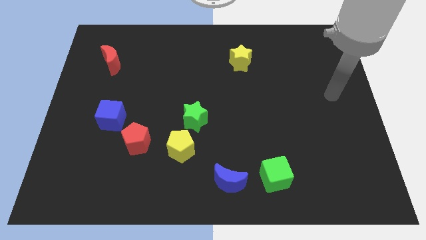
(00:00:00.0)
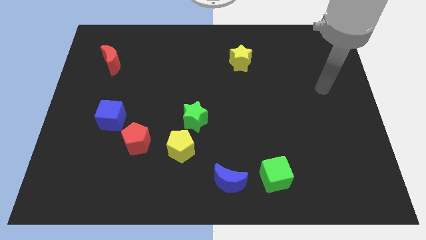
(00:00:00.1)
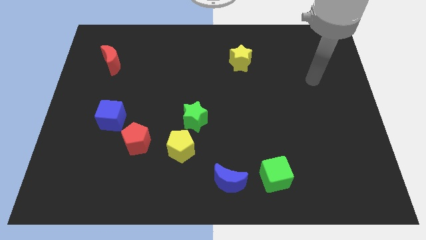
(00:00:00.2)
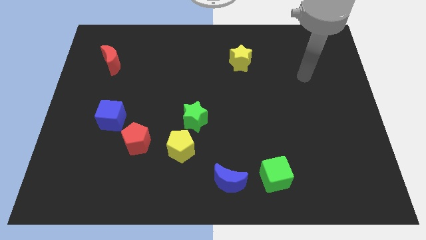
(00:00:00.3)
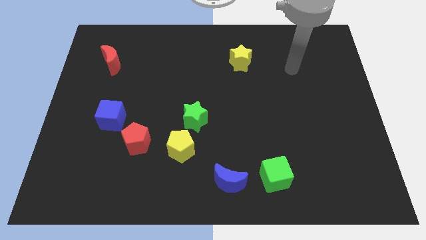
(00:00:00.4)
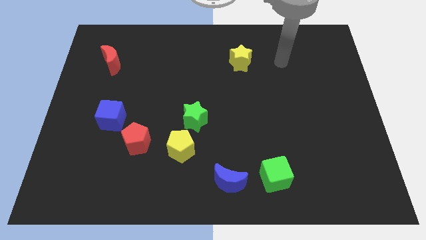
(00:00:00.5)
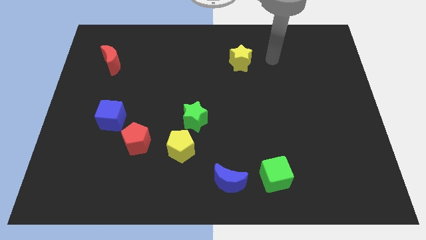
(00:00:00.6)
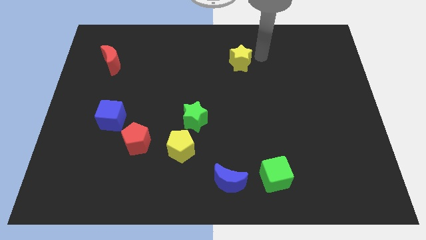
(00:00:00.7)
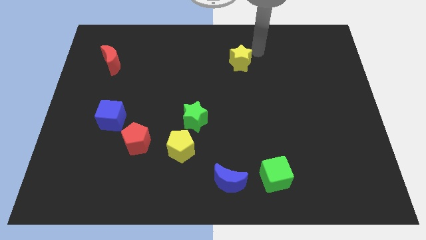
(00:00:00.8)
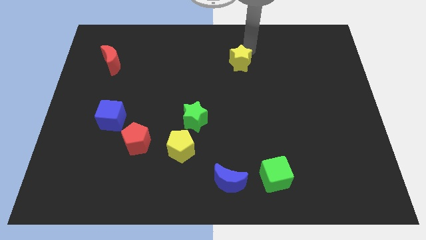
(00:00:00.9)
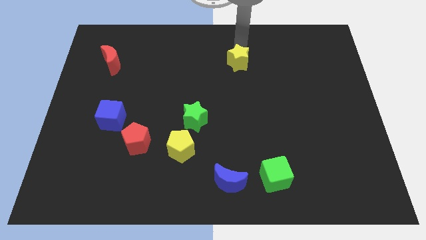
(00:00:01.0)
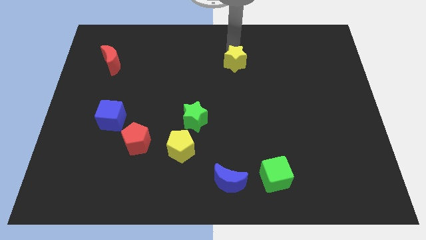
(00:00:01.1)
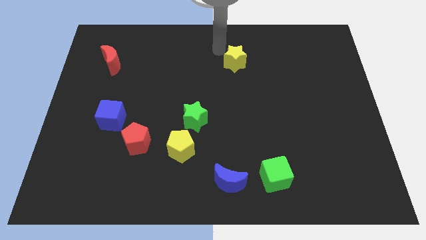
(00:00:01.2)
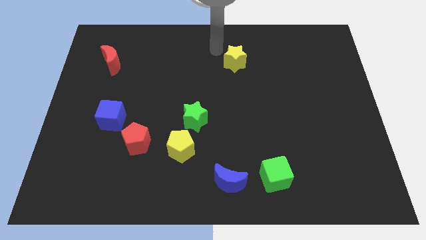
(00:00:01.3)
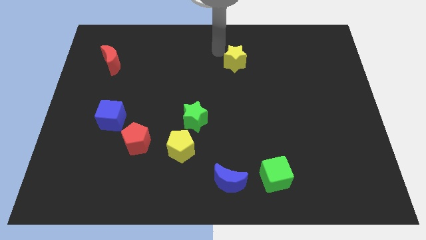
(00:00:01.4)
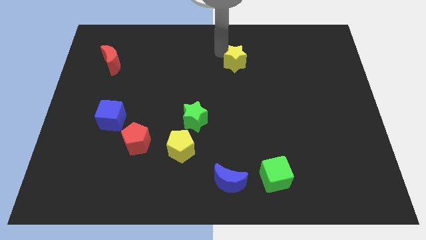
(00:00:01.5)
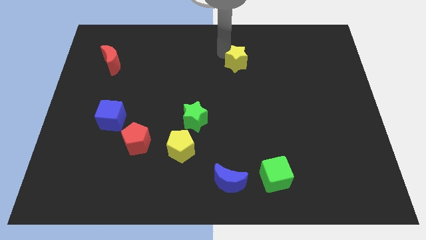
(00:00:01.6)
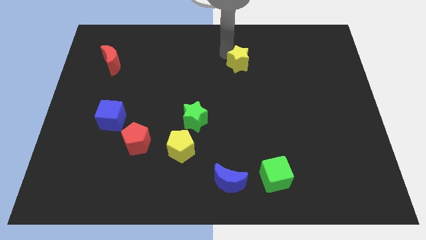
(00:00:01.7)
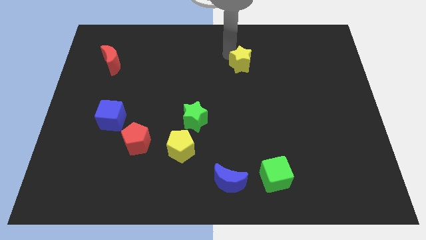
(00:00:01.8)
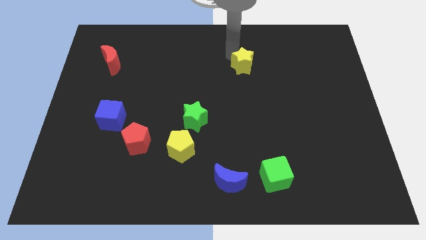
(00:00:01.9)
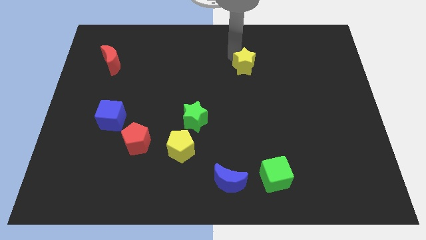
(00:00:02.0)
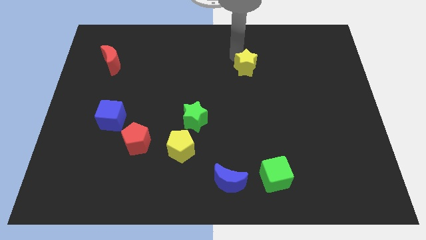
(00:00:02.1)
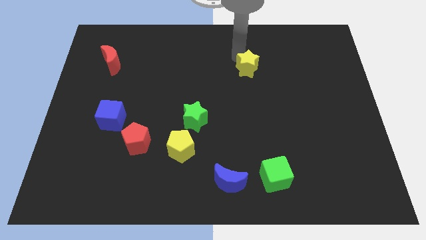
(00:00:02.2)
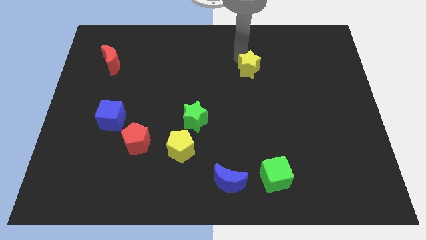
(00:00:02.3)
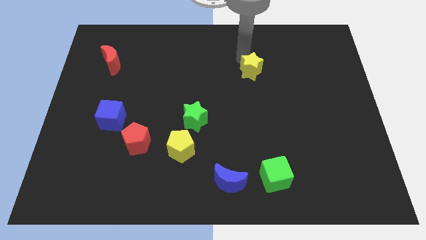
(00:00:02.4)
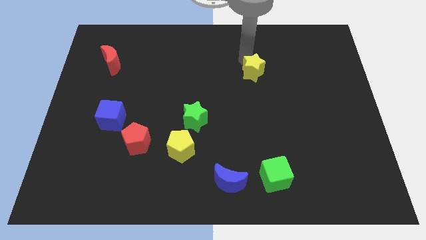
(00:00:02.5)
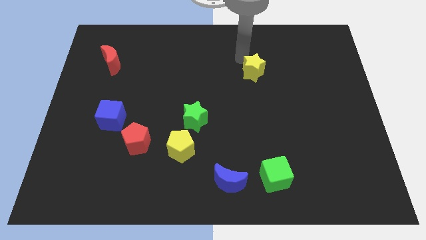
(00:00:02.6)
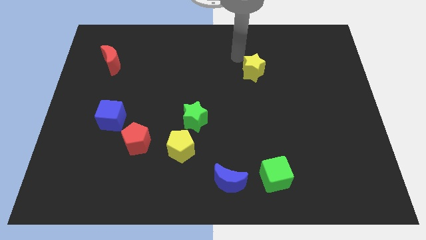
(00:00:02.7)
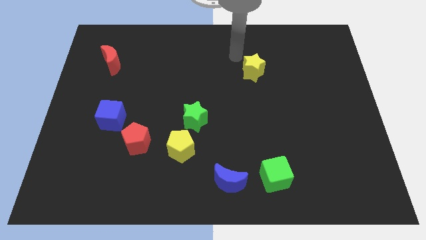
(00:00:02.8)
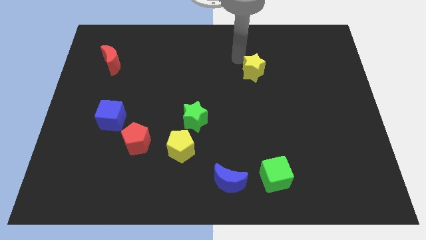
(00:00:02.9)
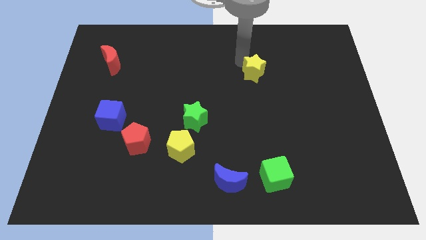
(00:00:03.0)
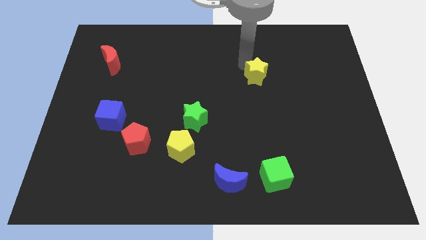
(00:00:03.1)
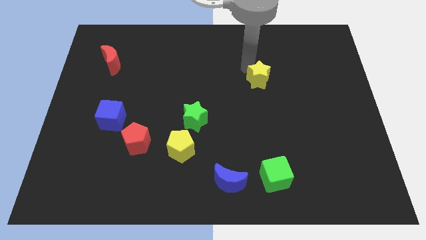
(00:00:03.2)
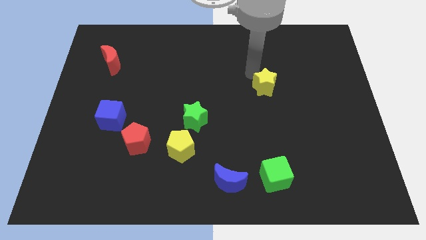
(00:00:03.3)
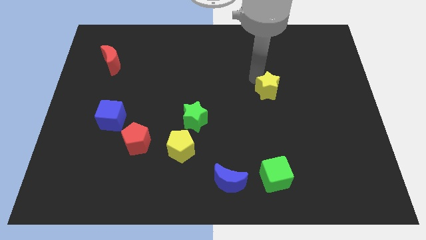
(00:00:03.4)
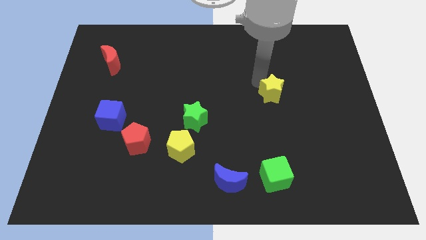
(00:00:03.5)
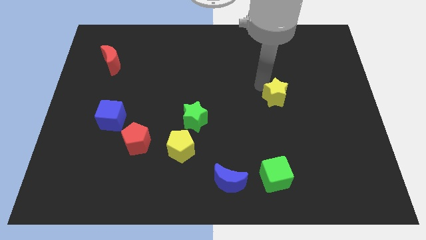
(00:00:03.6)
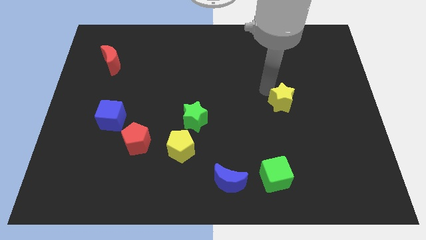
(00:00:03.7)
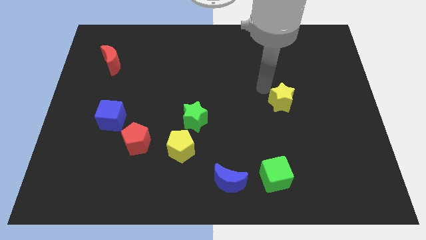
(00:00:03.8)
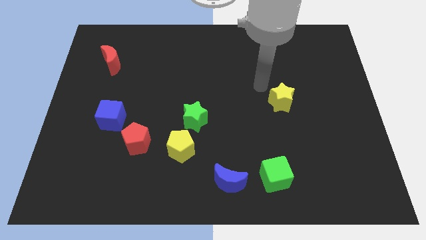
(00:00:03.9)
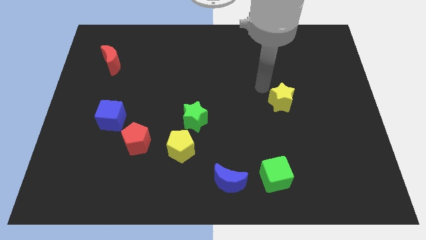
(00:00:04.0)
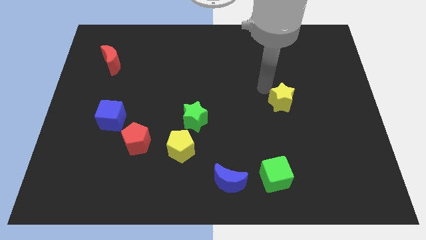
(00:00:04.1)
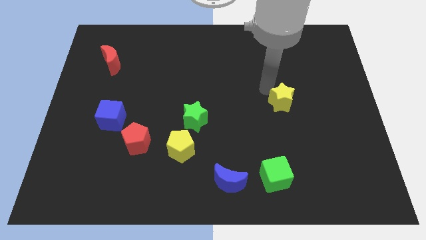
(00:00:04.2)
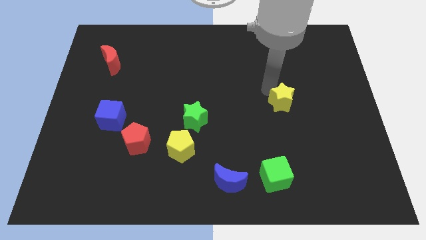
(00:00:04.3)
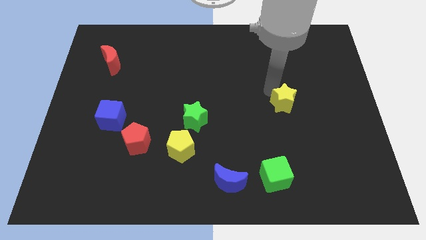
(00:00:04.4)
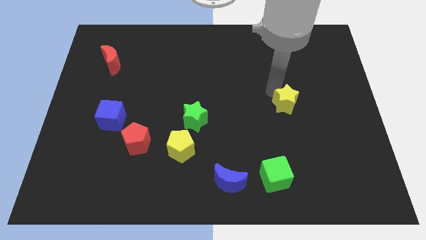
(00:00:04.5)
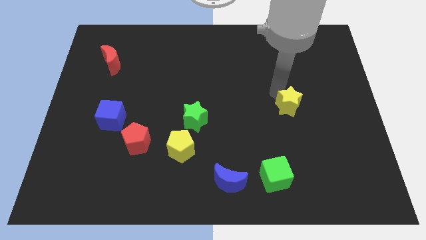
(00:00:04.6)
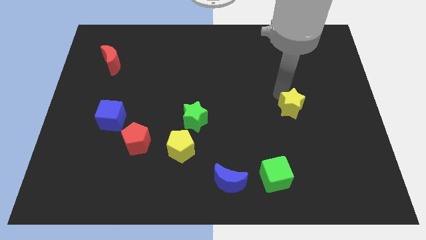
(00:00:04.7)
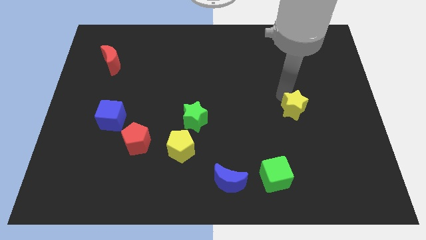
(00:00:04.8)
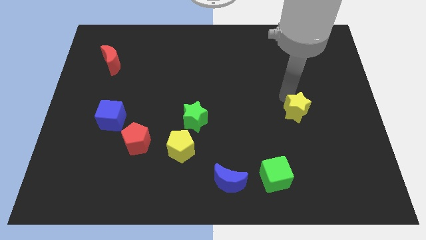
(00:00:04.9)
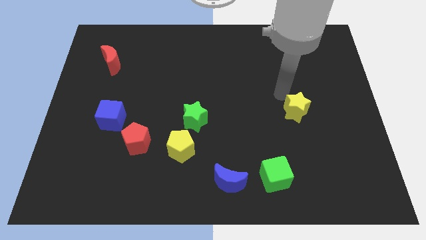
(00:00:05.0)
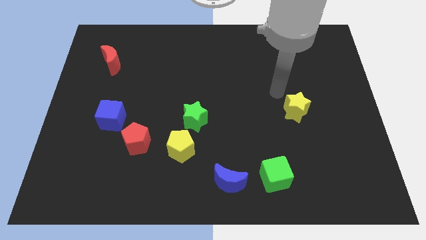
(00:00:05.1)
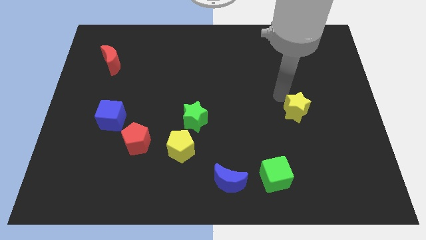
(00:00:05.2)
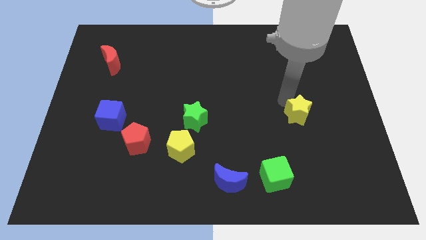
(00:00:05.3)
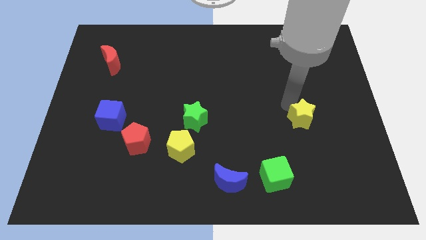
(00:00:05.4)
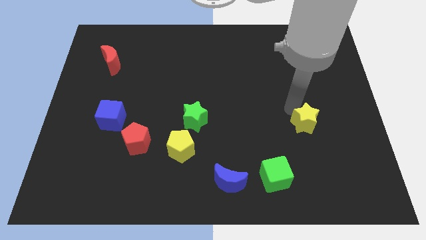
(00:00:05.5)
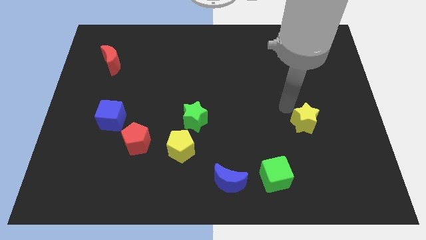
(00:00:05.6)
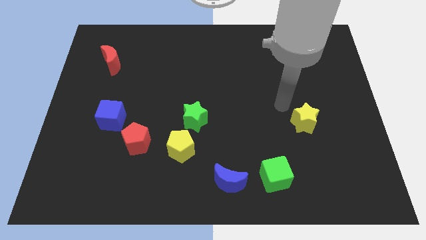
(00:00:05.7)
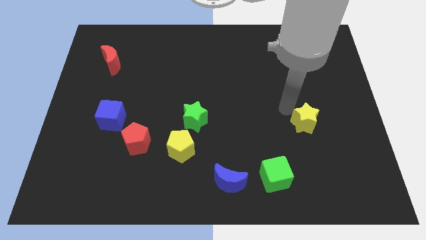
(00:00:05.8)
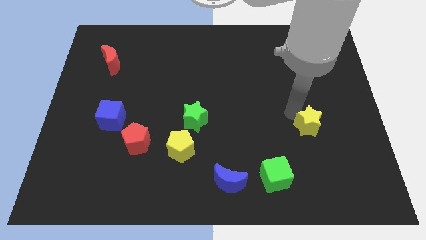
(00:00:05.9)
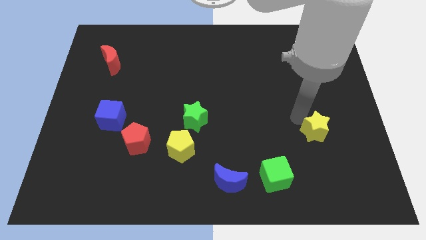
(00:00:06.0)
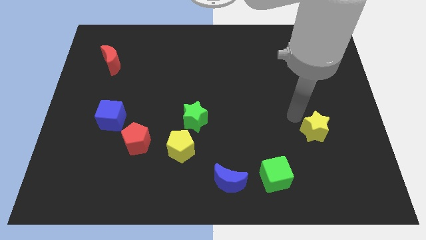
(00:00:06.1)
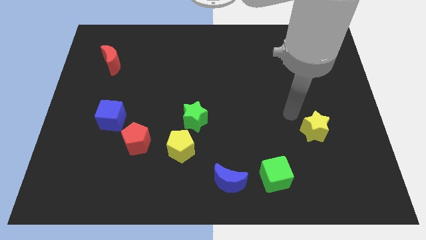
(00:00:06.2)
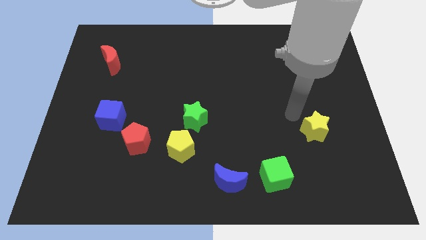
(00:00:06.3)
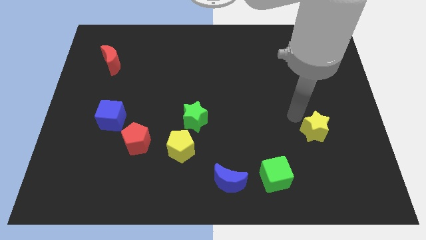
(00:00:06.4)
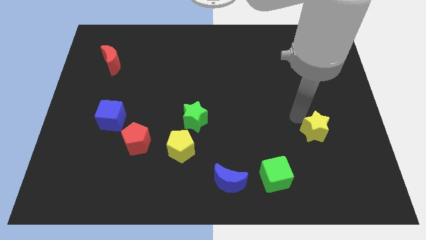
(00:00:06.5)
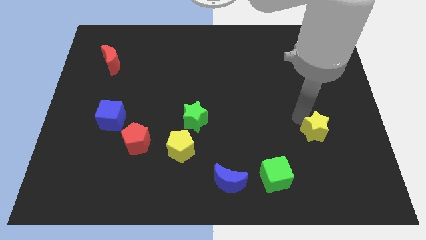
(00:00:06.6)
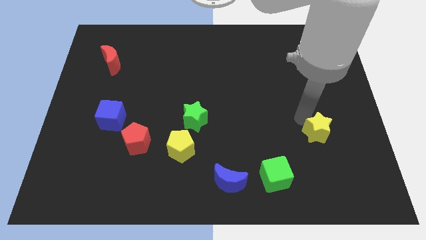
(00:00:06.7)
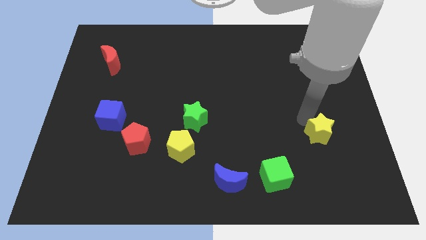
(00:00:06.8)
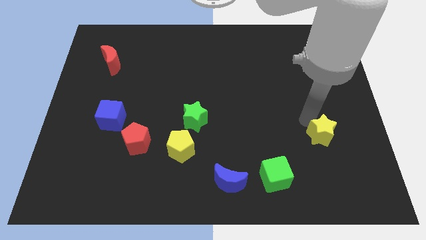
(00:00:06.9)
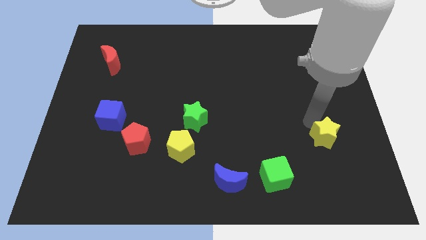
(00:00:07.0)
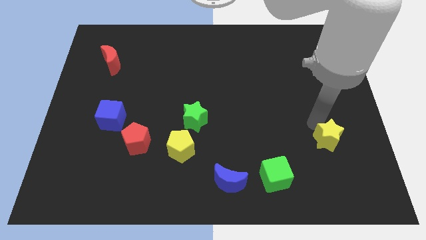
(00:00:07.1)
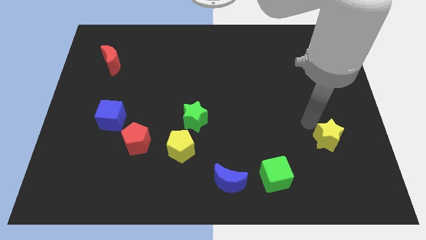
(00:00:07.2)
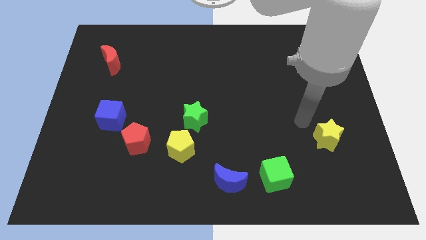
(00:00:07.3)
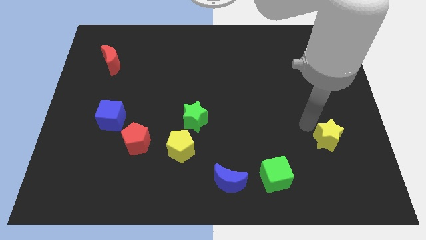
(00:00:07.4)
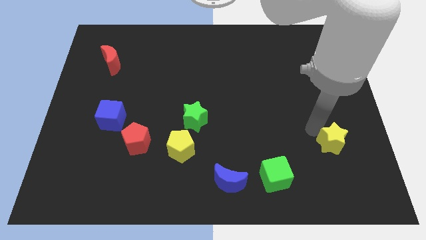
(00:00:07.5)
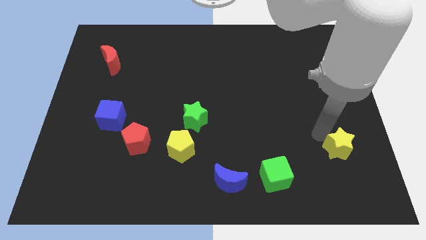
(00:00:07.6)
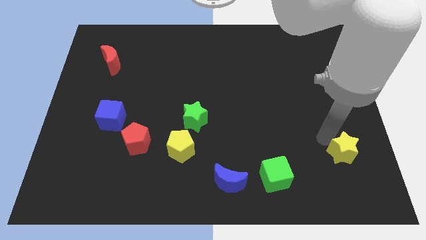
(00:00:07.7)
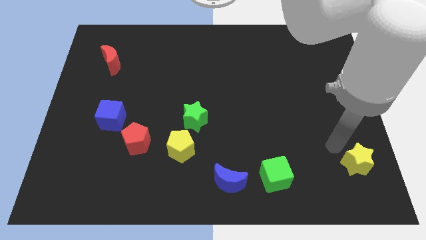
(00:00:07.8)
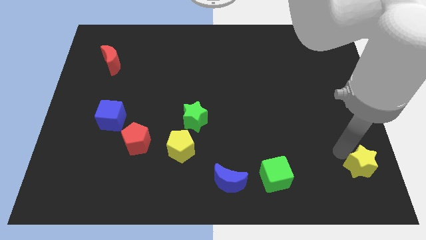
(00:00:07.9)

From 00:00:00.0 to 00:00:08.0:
move the yellow star to the lower right corner
